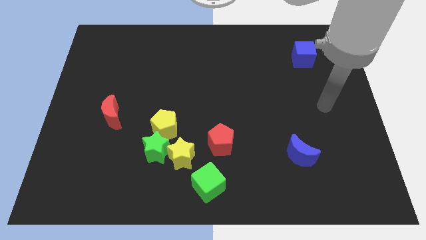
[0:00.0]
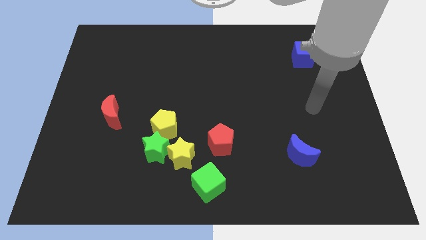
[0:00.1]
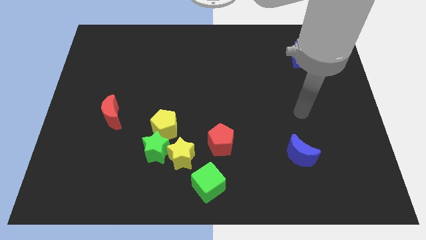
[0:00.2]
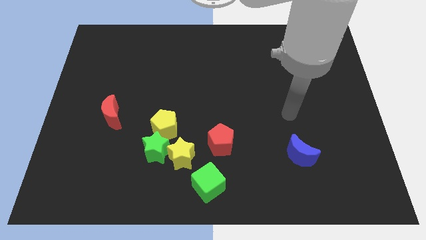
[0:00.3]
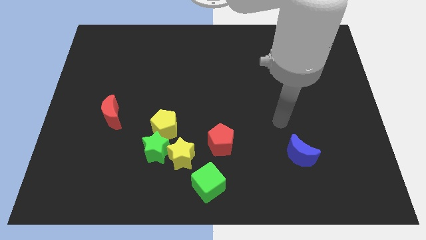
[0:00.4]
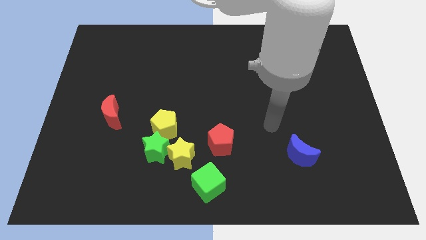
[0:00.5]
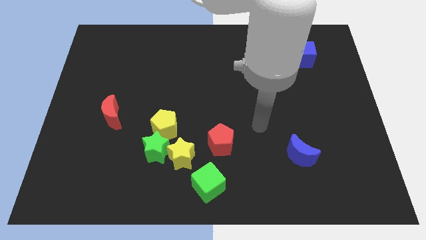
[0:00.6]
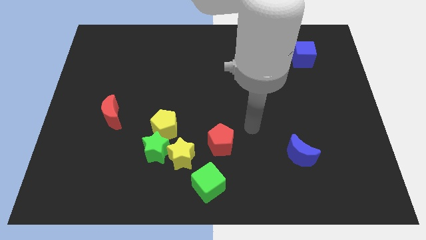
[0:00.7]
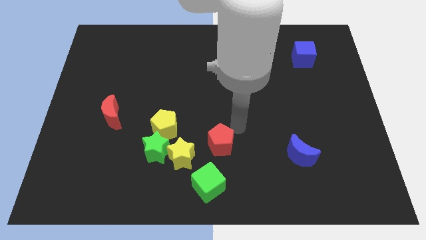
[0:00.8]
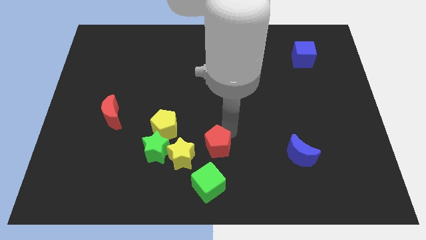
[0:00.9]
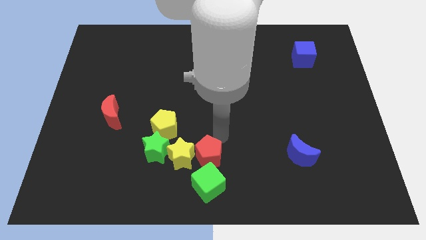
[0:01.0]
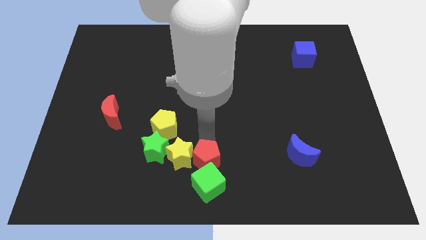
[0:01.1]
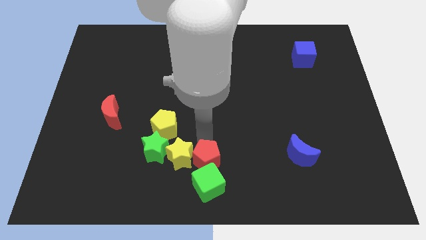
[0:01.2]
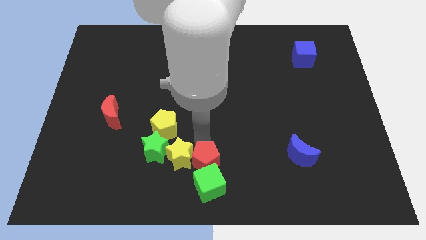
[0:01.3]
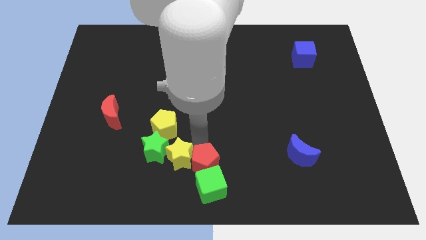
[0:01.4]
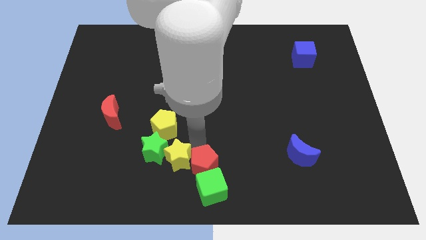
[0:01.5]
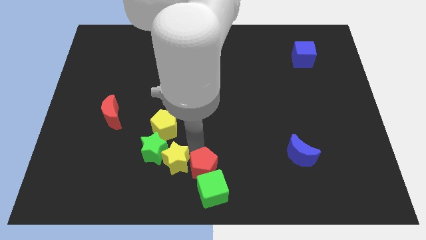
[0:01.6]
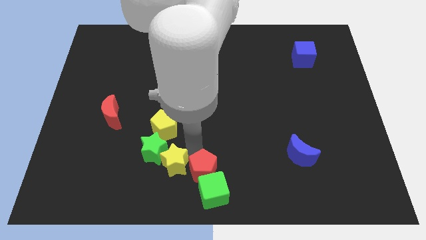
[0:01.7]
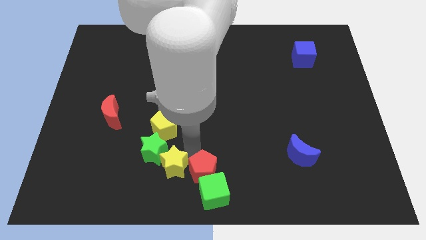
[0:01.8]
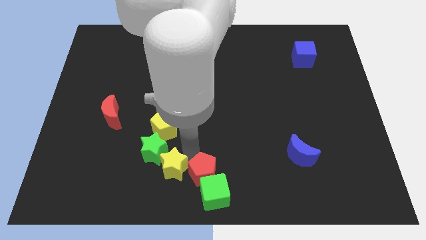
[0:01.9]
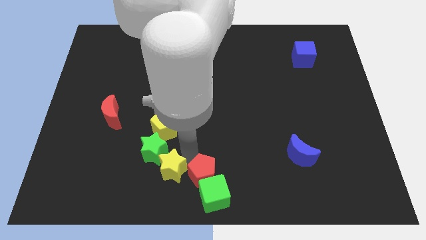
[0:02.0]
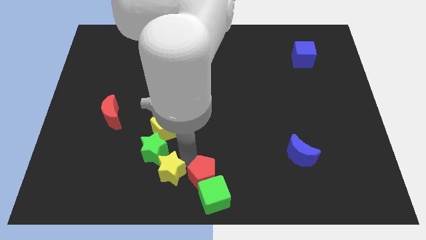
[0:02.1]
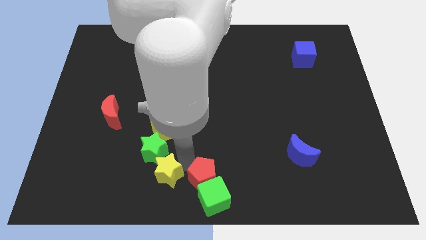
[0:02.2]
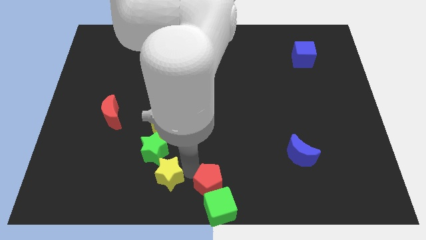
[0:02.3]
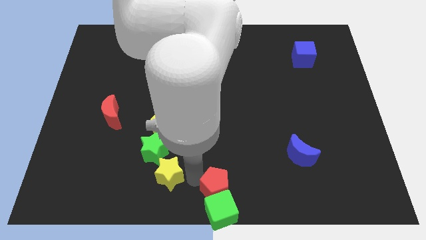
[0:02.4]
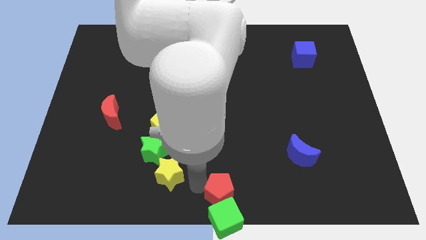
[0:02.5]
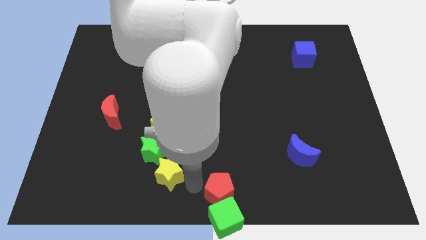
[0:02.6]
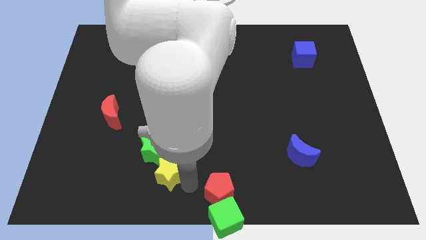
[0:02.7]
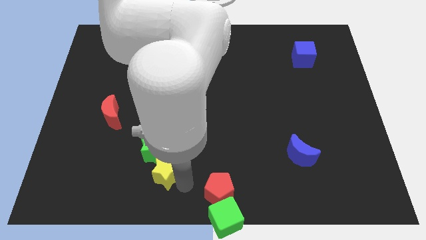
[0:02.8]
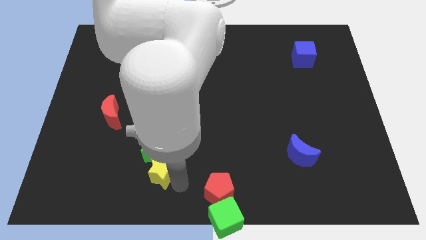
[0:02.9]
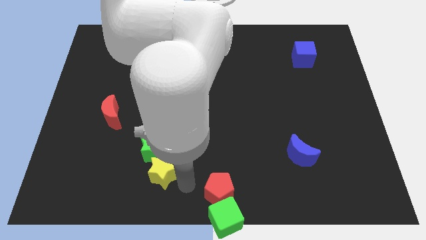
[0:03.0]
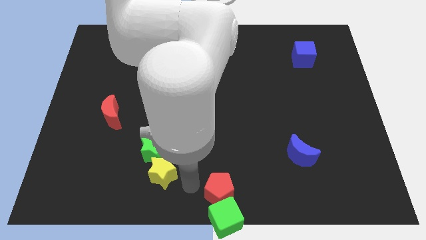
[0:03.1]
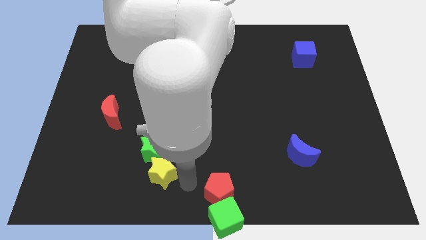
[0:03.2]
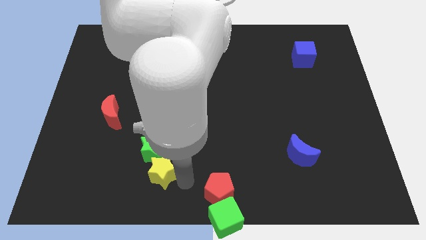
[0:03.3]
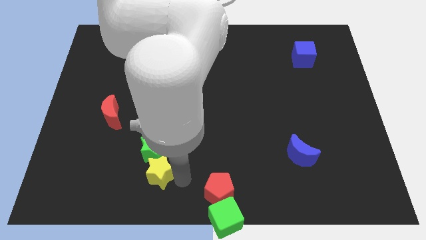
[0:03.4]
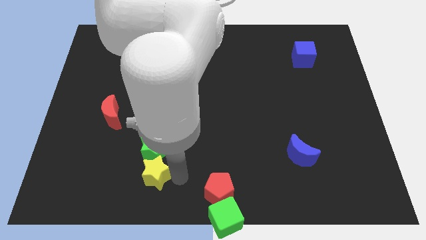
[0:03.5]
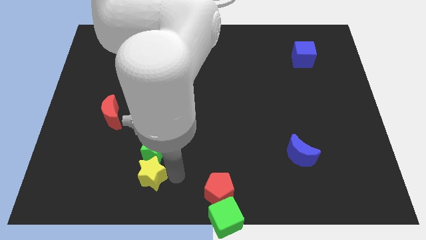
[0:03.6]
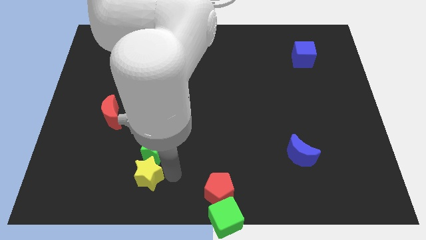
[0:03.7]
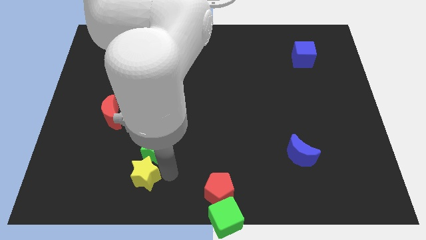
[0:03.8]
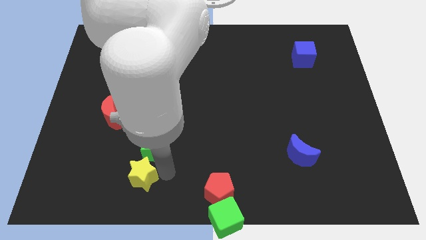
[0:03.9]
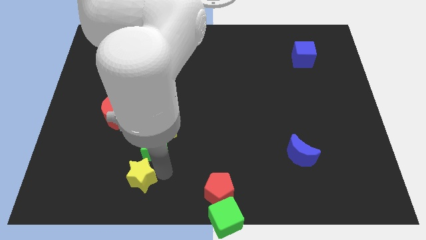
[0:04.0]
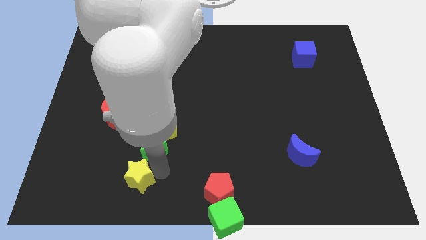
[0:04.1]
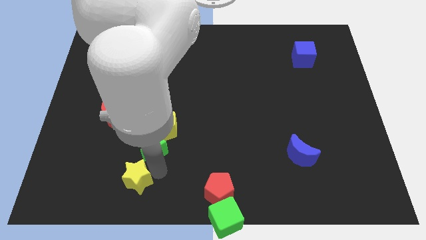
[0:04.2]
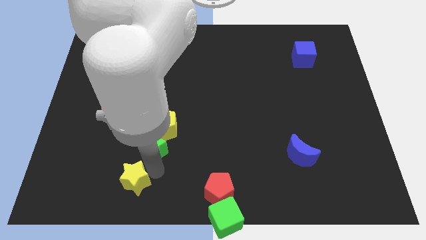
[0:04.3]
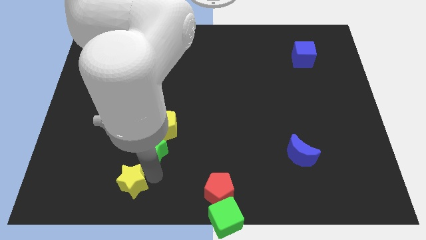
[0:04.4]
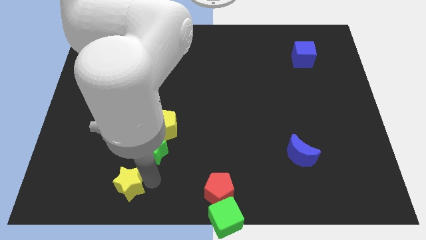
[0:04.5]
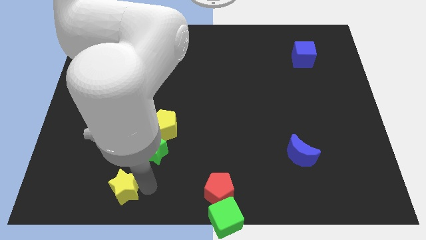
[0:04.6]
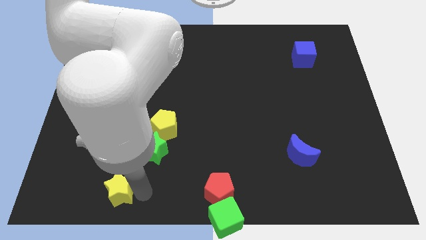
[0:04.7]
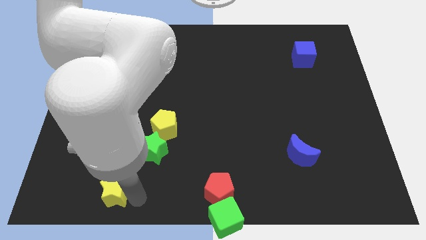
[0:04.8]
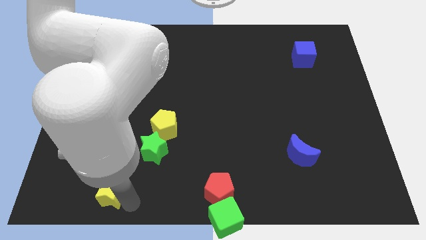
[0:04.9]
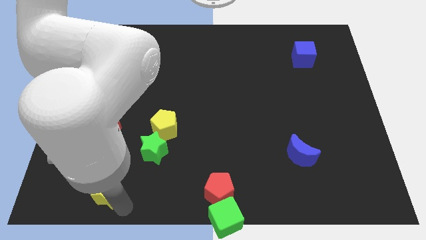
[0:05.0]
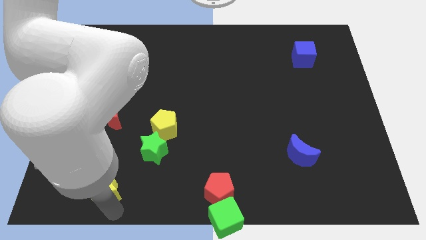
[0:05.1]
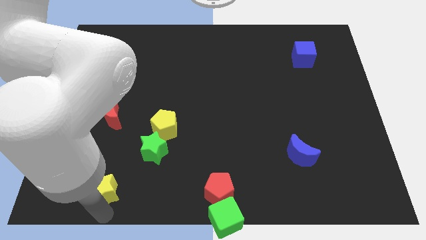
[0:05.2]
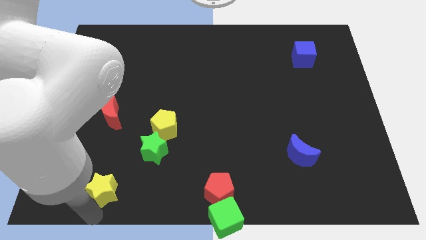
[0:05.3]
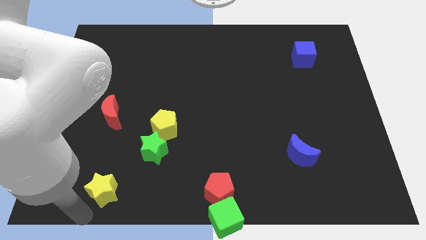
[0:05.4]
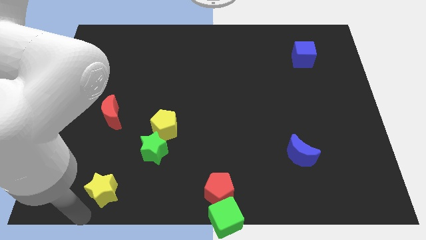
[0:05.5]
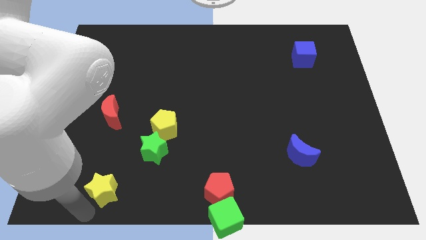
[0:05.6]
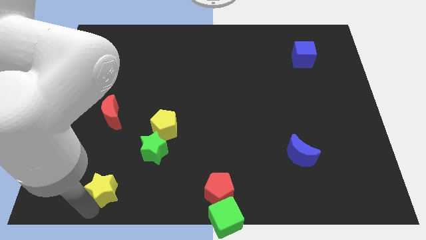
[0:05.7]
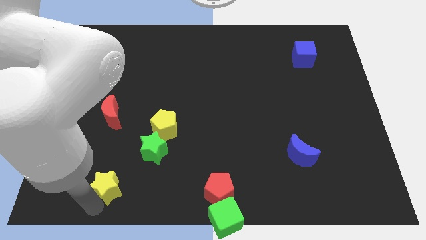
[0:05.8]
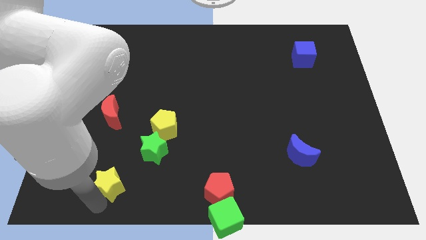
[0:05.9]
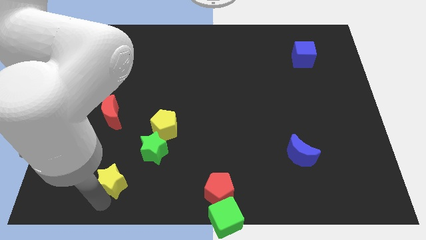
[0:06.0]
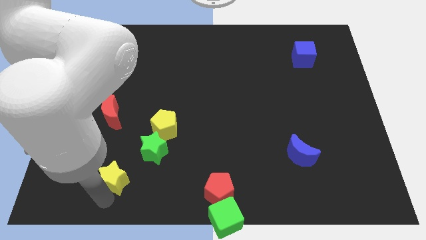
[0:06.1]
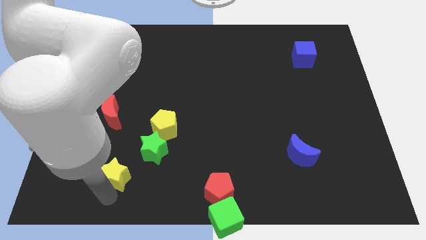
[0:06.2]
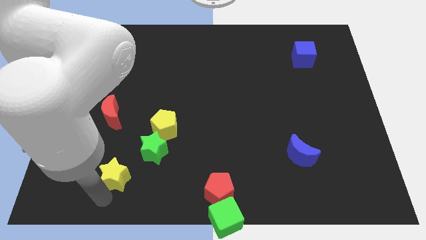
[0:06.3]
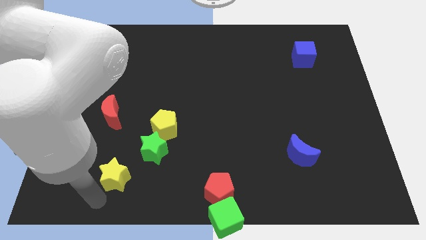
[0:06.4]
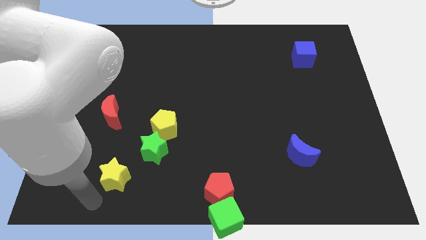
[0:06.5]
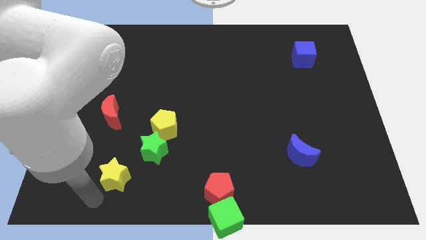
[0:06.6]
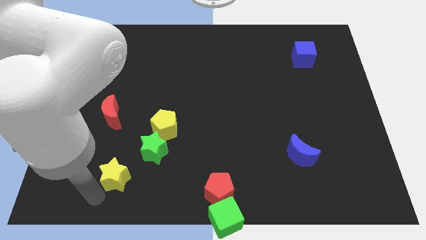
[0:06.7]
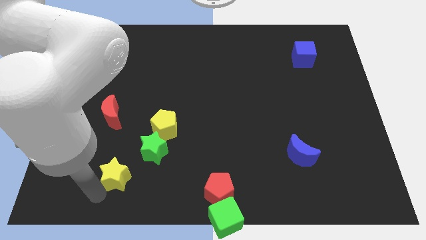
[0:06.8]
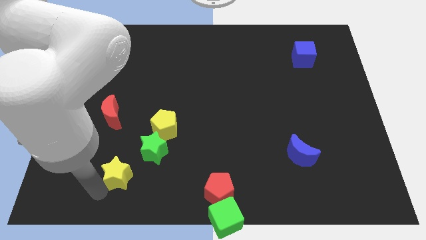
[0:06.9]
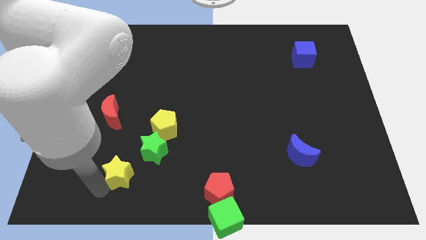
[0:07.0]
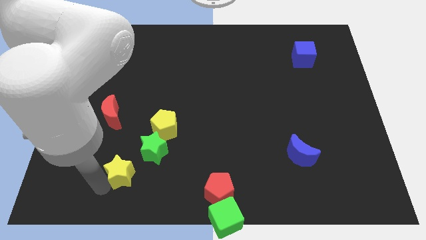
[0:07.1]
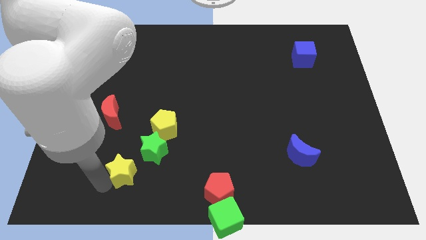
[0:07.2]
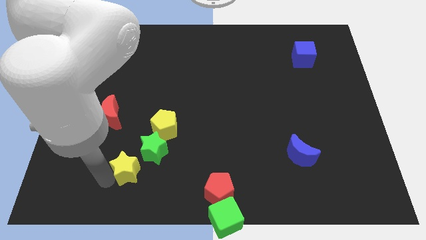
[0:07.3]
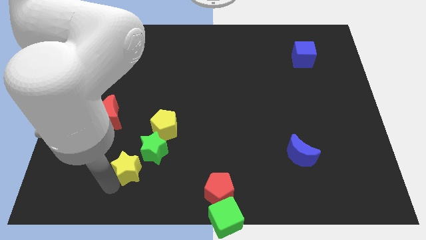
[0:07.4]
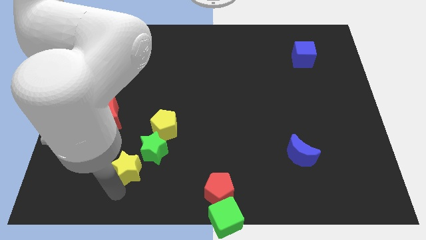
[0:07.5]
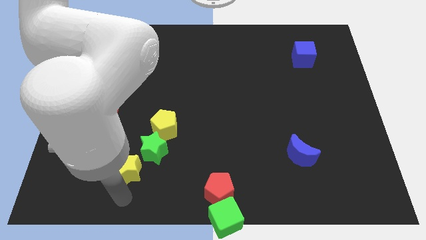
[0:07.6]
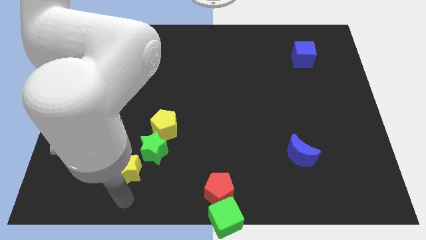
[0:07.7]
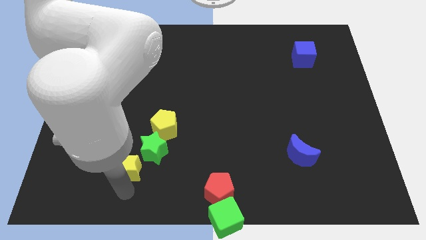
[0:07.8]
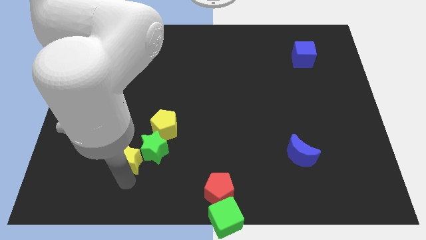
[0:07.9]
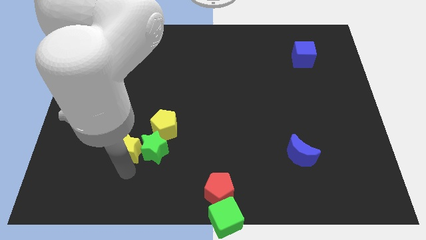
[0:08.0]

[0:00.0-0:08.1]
put the yellow star diagonally up and to the left of the green star
